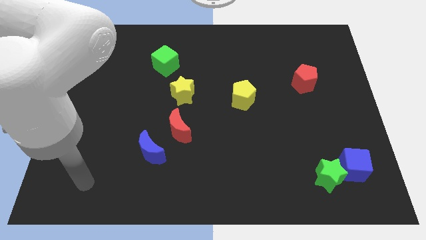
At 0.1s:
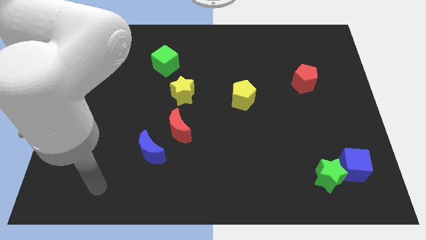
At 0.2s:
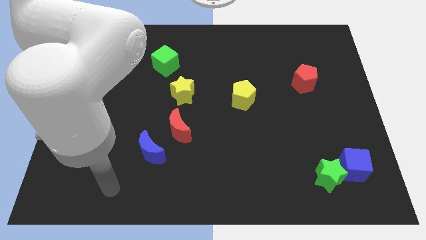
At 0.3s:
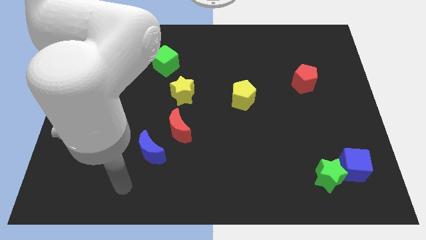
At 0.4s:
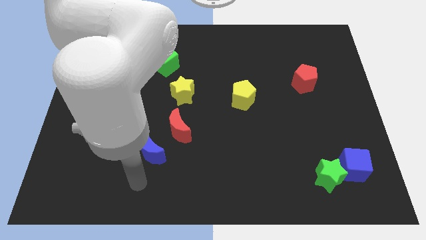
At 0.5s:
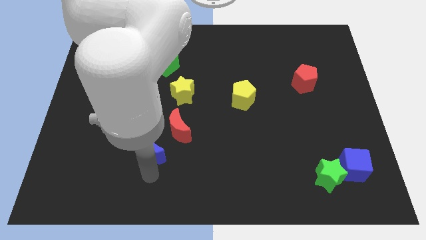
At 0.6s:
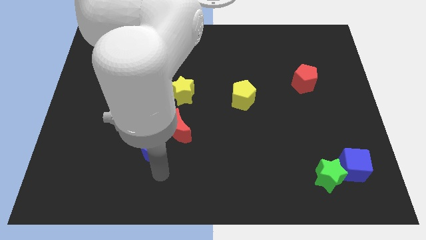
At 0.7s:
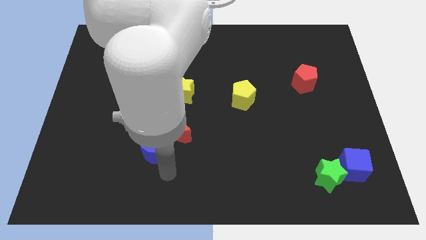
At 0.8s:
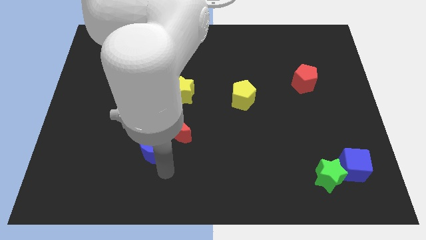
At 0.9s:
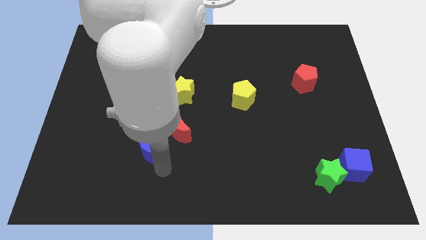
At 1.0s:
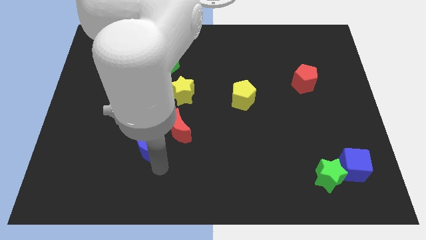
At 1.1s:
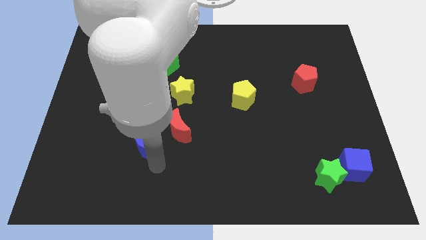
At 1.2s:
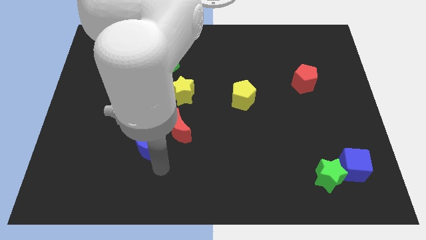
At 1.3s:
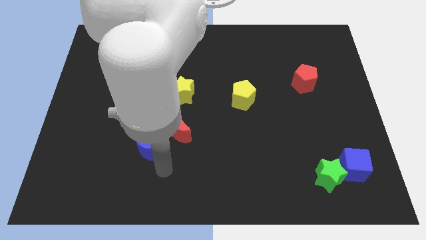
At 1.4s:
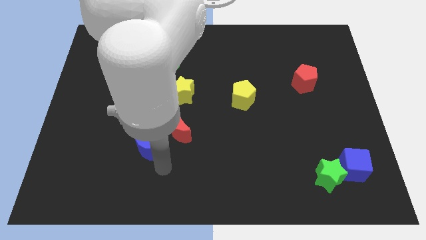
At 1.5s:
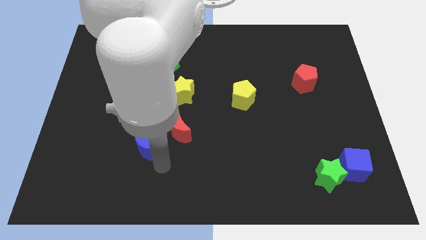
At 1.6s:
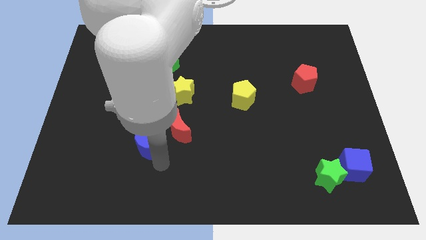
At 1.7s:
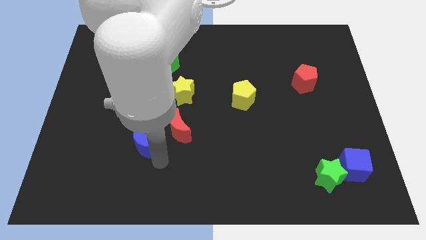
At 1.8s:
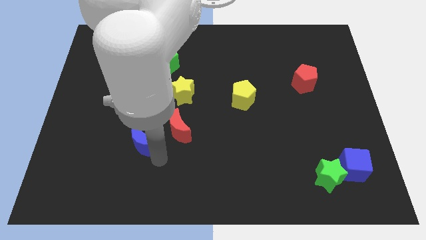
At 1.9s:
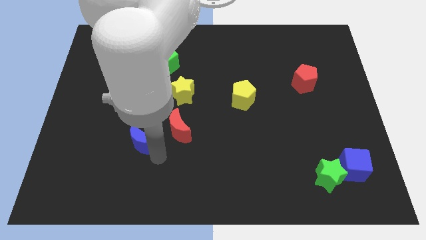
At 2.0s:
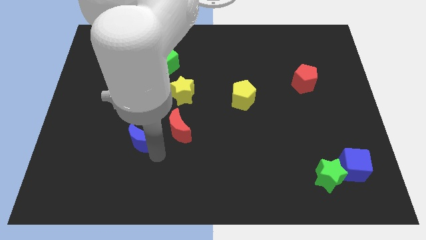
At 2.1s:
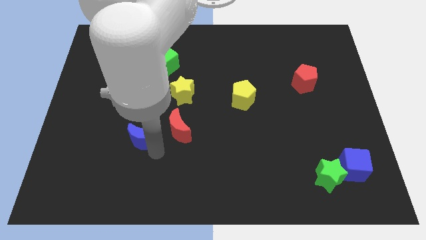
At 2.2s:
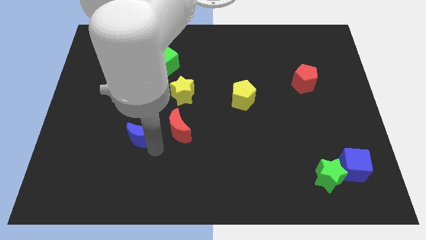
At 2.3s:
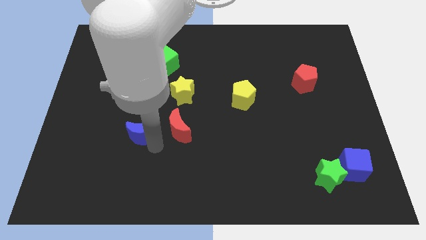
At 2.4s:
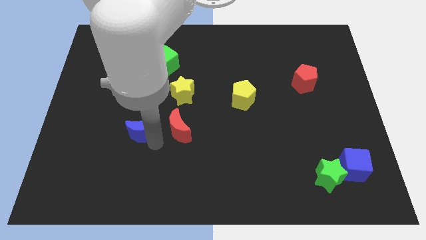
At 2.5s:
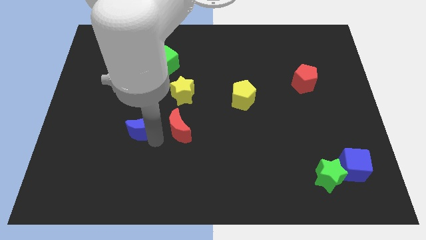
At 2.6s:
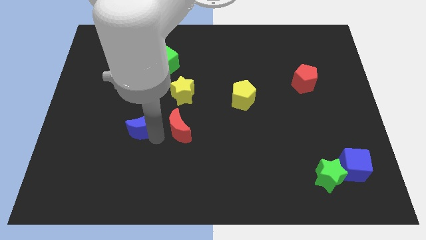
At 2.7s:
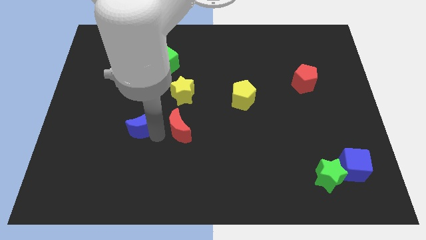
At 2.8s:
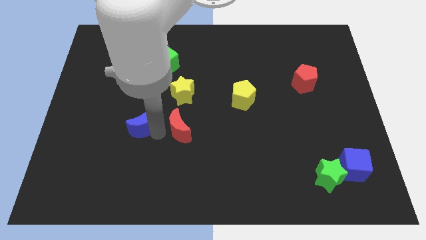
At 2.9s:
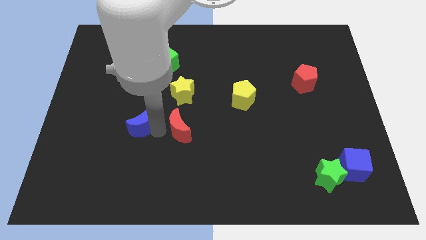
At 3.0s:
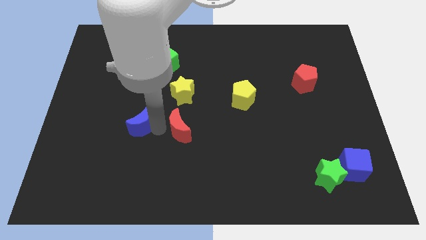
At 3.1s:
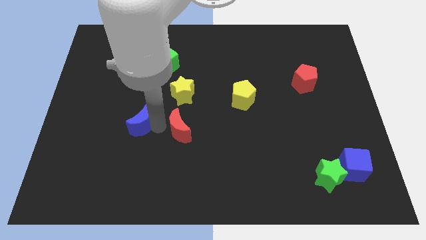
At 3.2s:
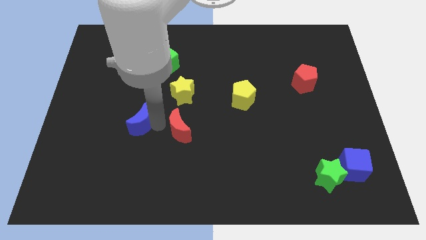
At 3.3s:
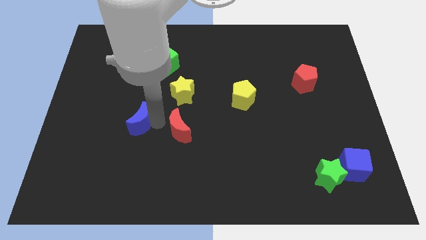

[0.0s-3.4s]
slightly slide the blue moon diagonally upwards and left

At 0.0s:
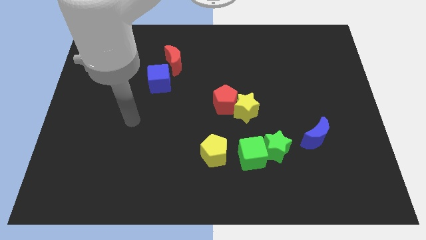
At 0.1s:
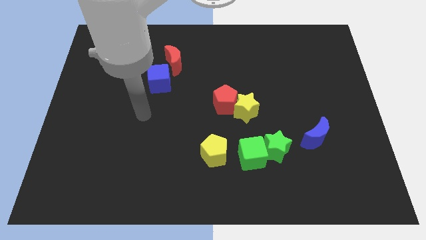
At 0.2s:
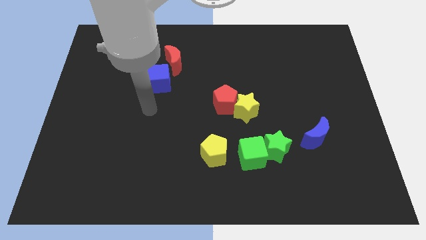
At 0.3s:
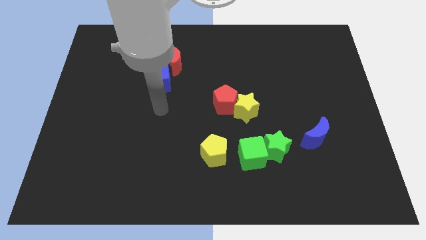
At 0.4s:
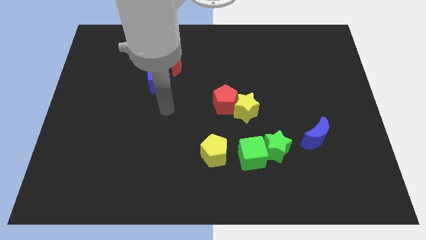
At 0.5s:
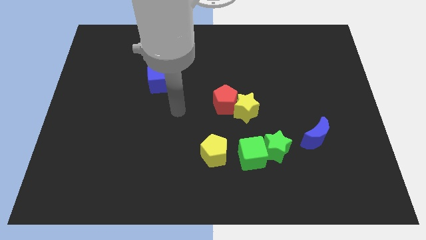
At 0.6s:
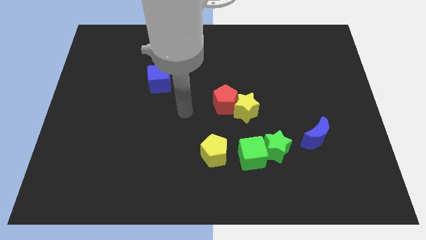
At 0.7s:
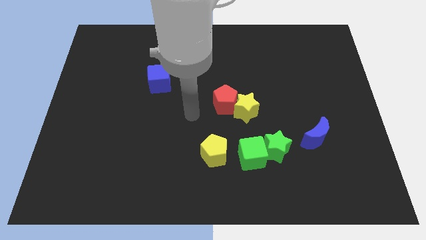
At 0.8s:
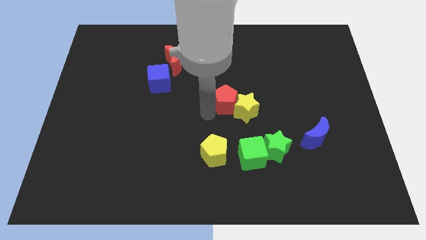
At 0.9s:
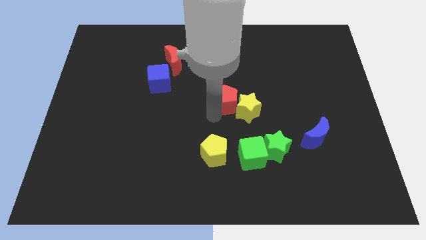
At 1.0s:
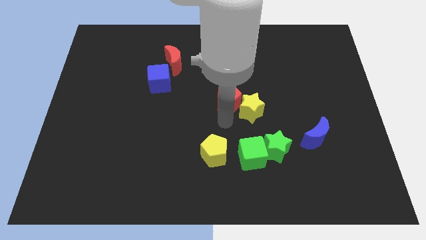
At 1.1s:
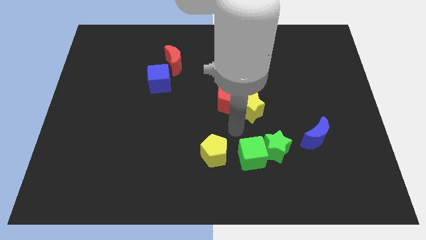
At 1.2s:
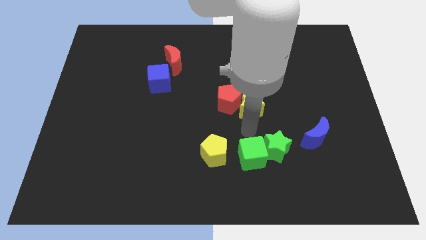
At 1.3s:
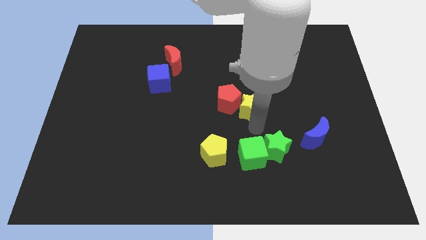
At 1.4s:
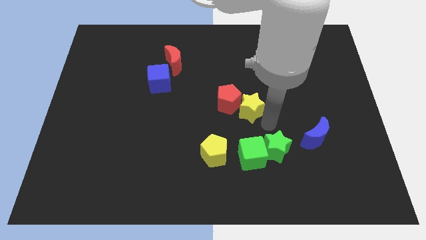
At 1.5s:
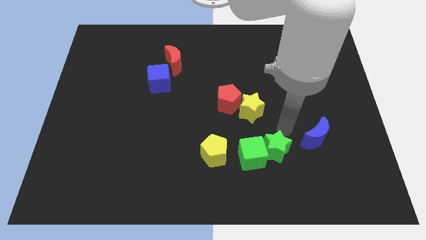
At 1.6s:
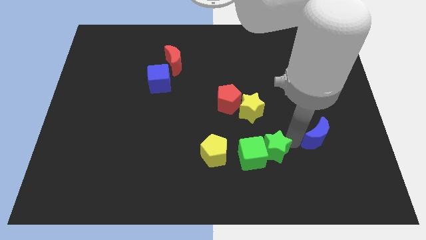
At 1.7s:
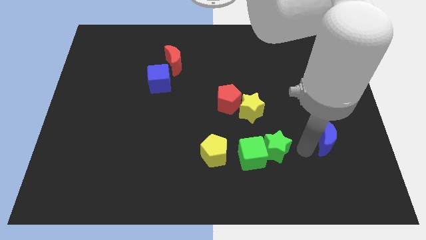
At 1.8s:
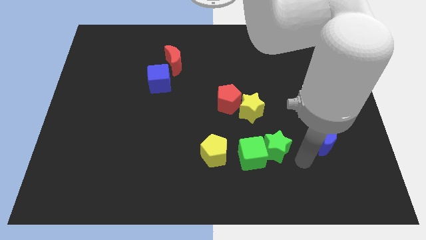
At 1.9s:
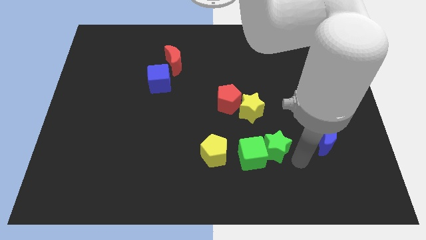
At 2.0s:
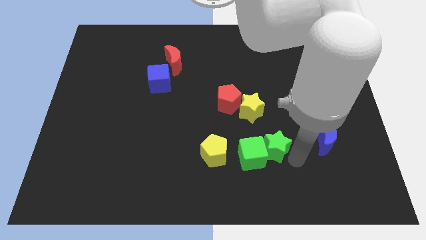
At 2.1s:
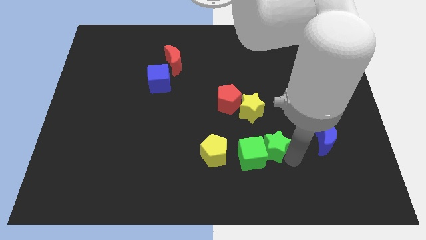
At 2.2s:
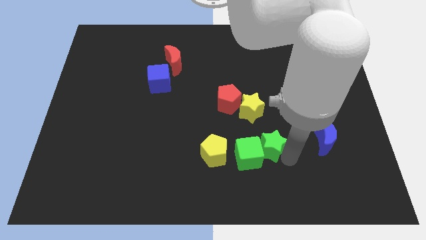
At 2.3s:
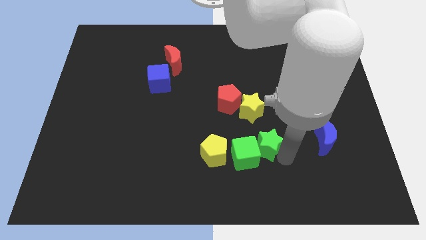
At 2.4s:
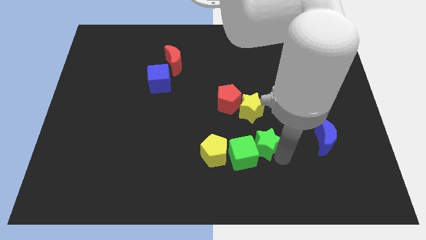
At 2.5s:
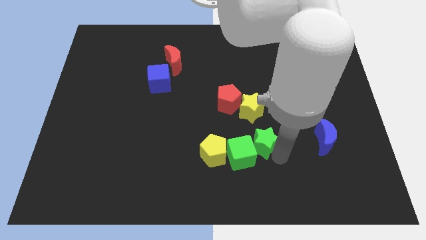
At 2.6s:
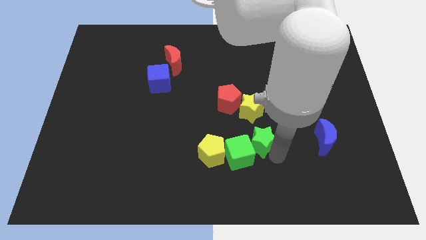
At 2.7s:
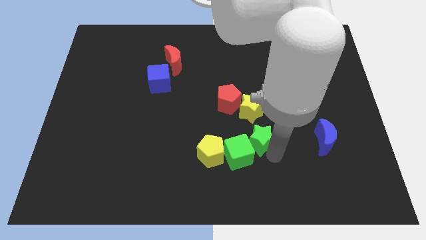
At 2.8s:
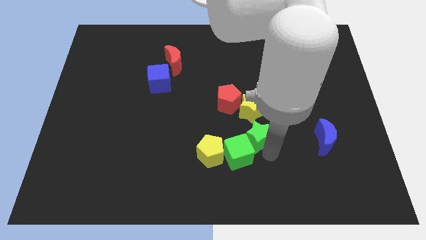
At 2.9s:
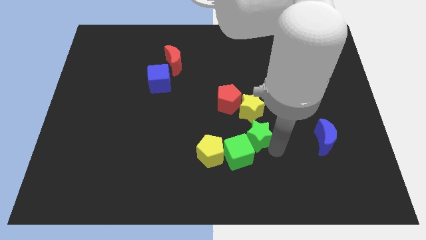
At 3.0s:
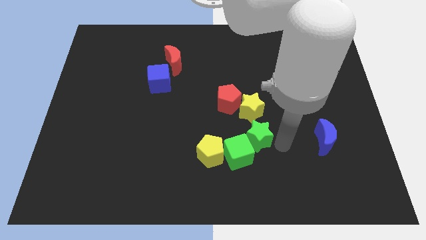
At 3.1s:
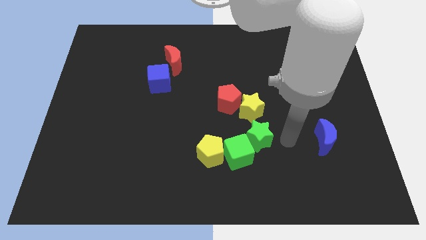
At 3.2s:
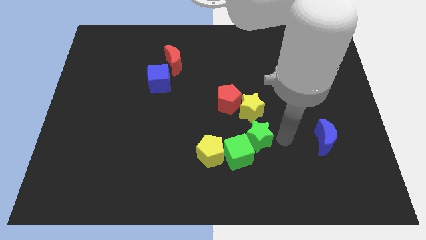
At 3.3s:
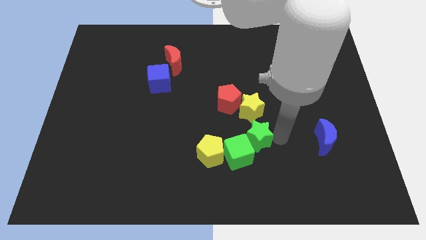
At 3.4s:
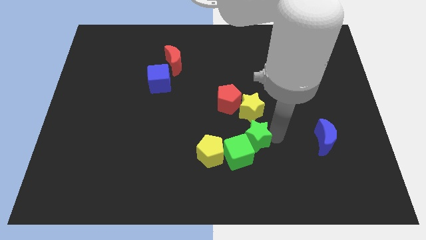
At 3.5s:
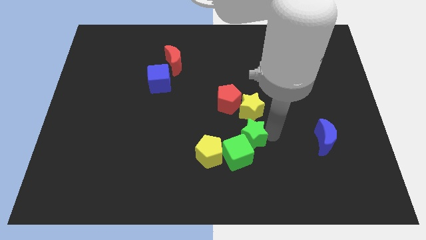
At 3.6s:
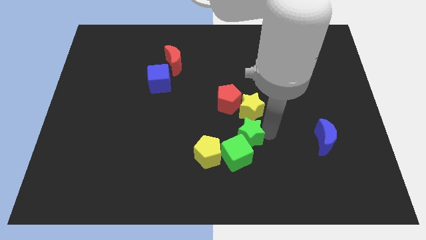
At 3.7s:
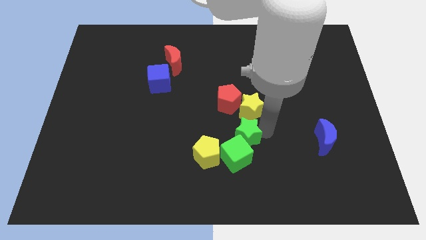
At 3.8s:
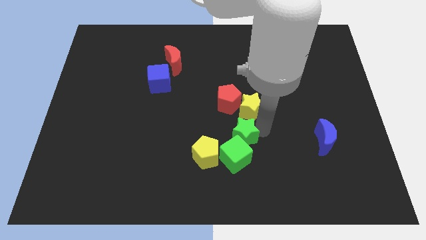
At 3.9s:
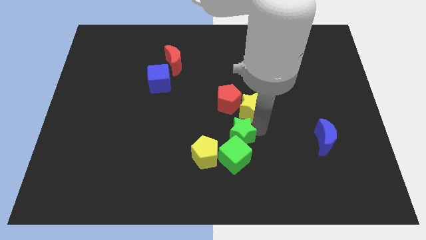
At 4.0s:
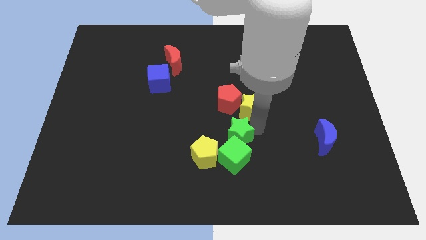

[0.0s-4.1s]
push the green star slightly left

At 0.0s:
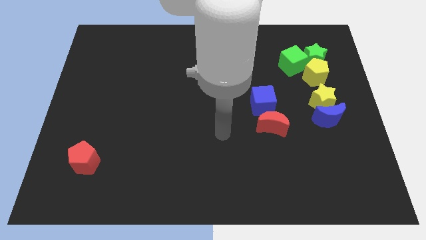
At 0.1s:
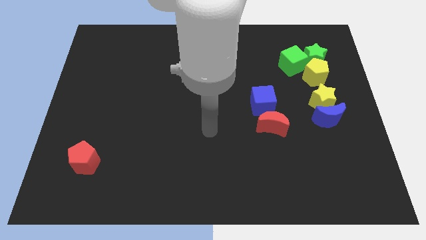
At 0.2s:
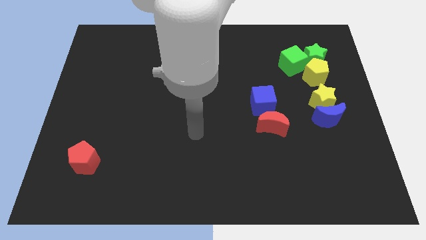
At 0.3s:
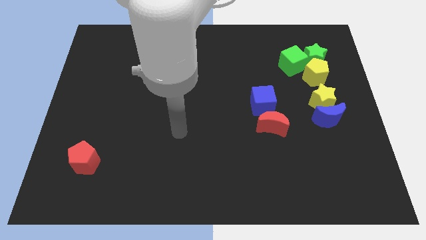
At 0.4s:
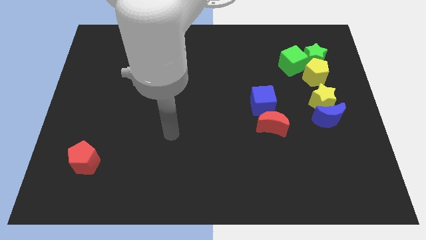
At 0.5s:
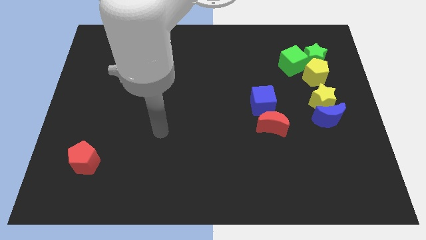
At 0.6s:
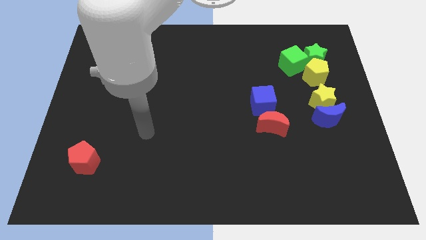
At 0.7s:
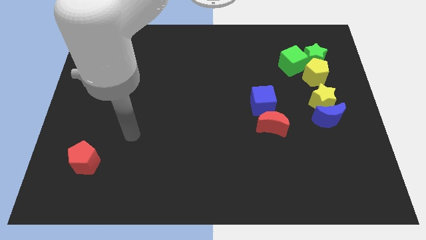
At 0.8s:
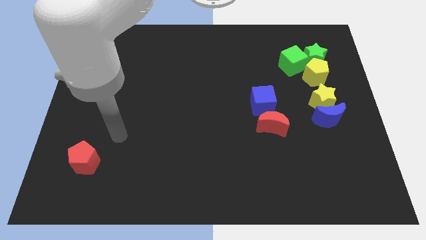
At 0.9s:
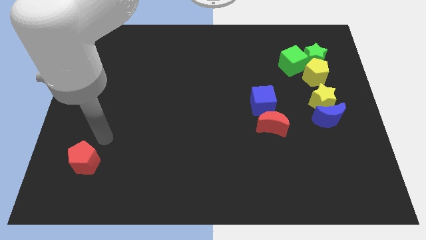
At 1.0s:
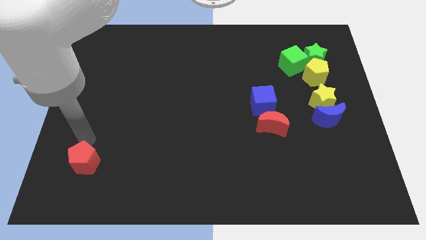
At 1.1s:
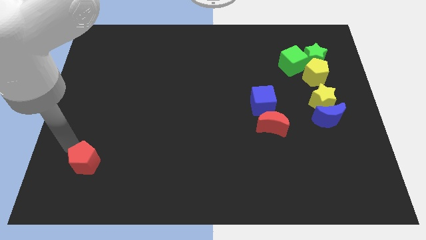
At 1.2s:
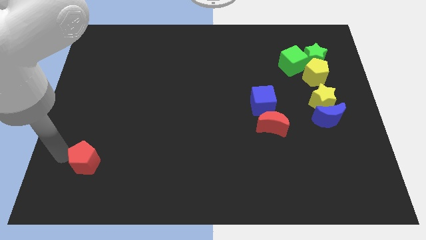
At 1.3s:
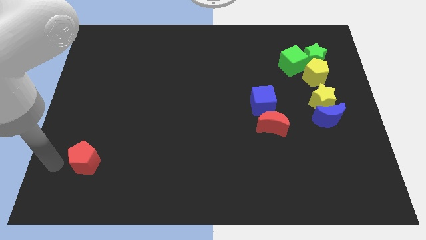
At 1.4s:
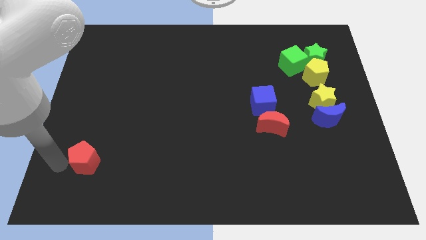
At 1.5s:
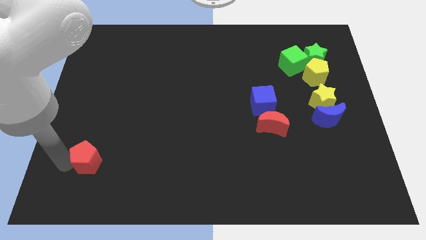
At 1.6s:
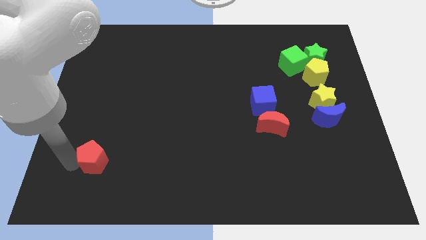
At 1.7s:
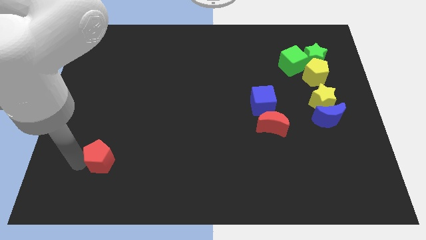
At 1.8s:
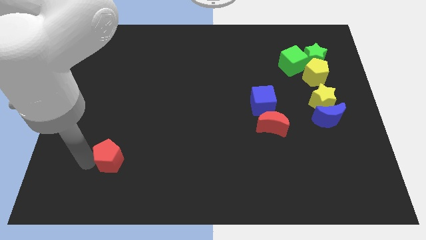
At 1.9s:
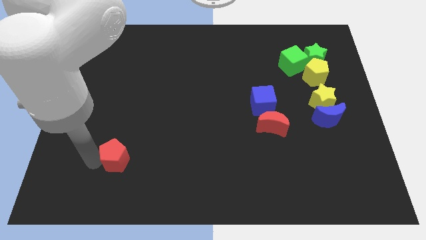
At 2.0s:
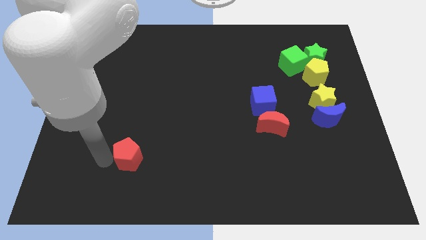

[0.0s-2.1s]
slide the red pentagon right a little
